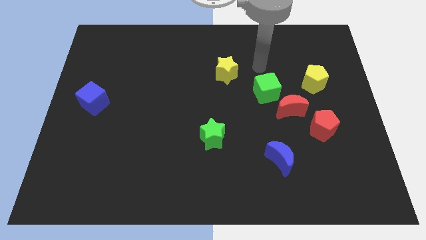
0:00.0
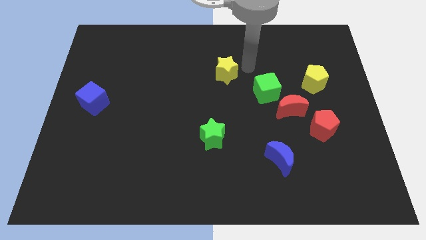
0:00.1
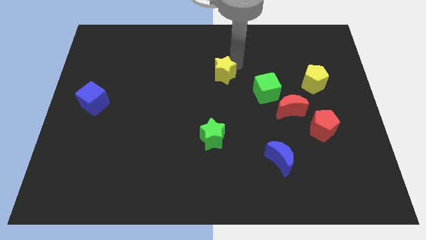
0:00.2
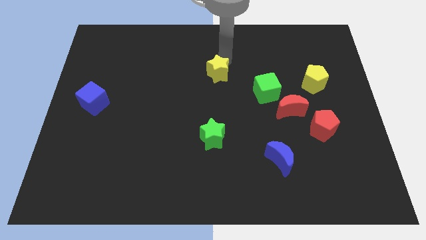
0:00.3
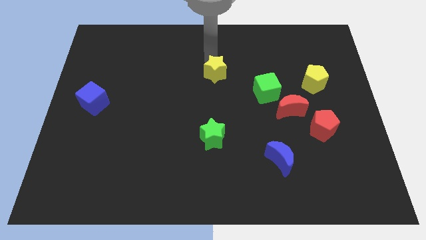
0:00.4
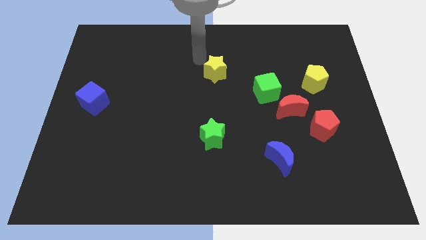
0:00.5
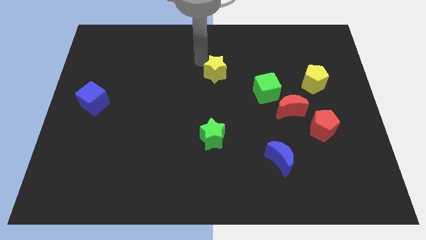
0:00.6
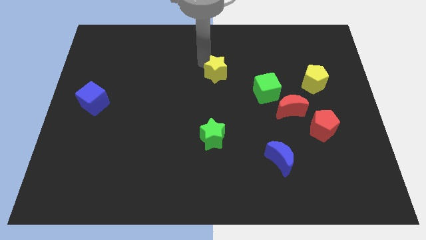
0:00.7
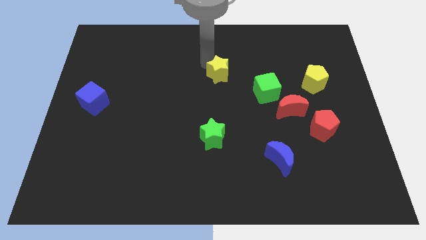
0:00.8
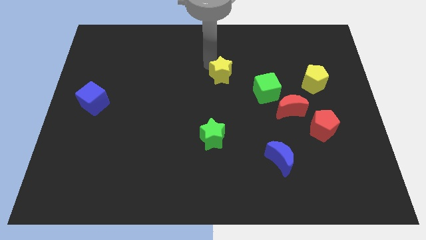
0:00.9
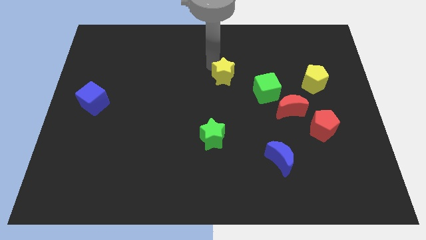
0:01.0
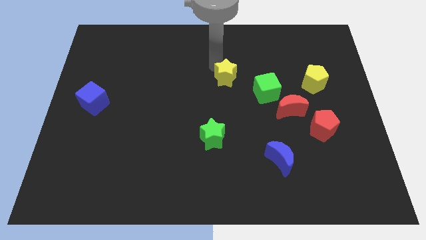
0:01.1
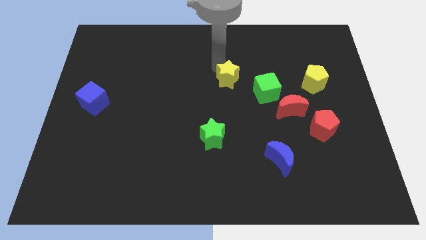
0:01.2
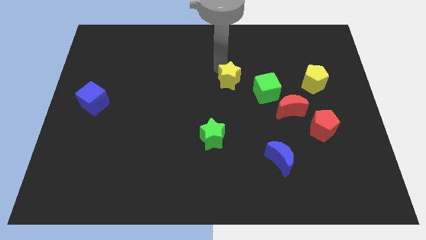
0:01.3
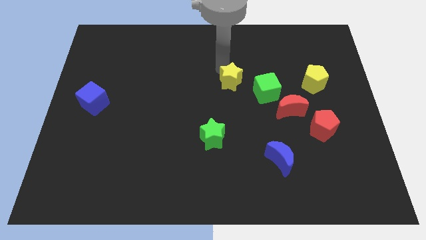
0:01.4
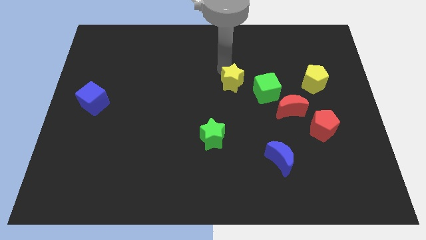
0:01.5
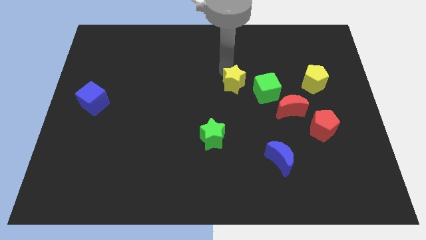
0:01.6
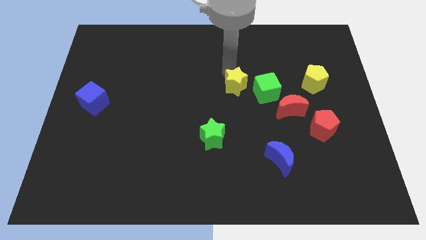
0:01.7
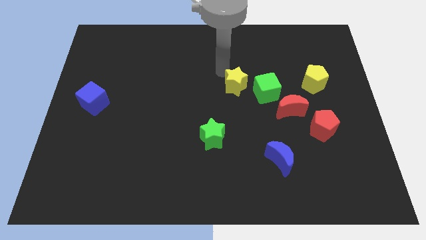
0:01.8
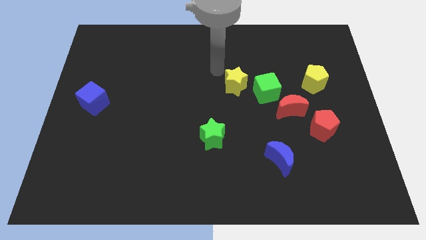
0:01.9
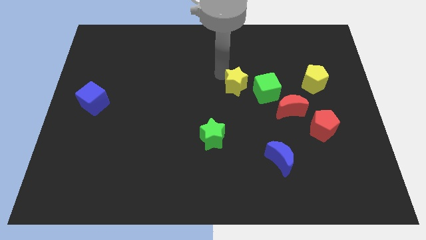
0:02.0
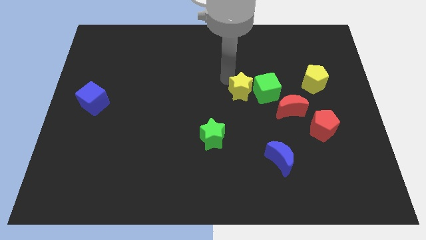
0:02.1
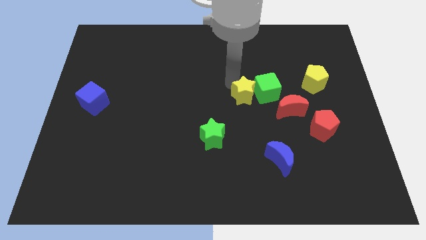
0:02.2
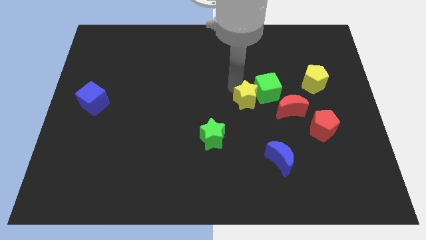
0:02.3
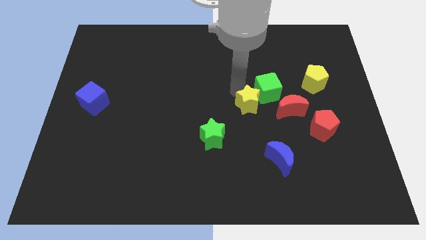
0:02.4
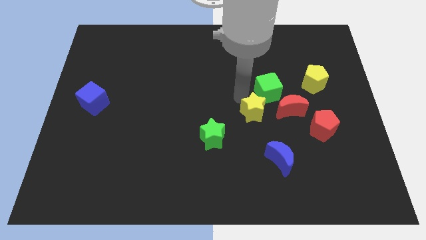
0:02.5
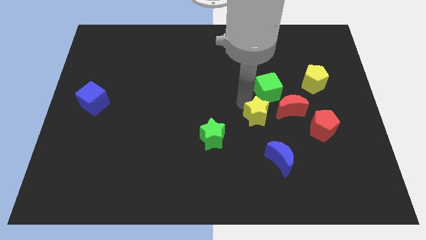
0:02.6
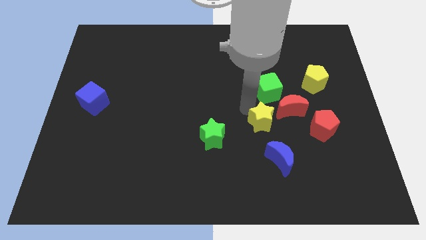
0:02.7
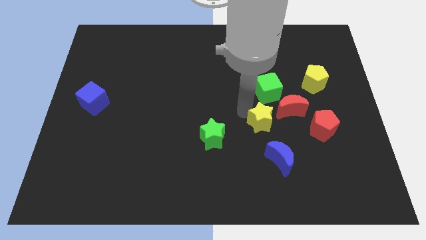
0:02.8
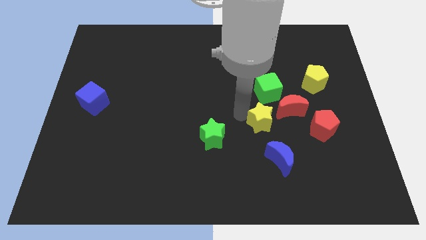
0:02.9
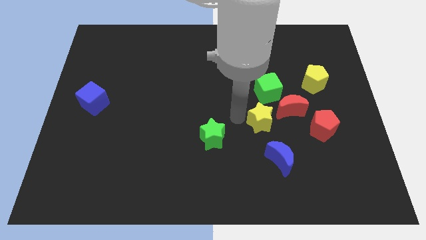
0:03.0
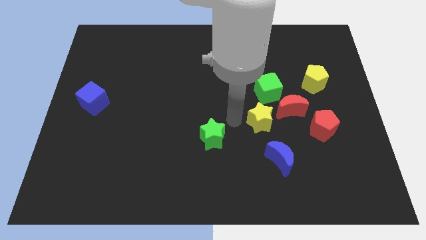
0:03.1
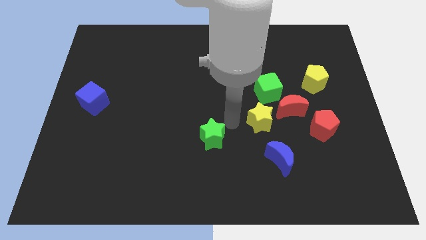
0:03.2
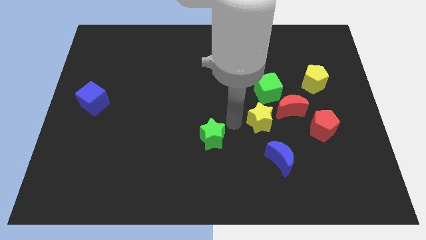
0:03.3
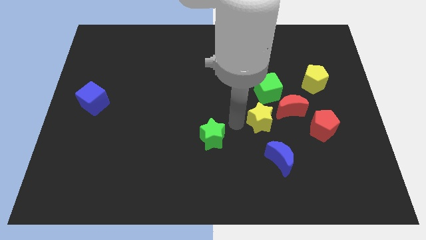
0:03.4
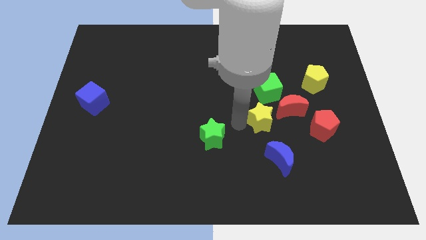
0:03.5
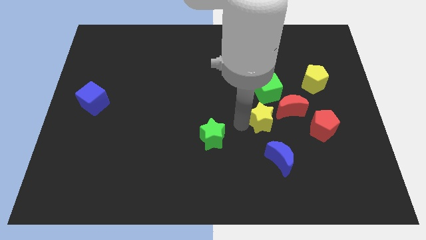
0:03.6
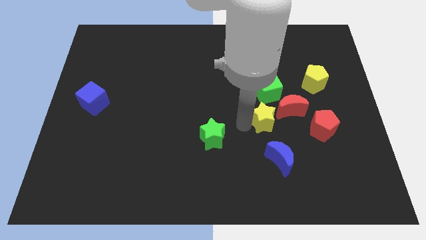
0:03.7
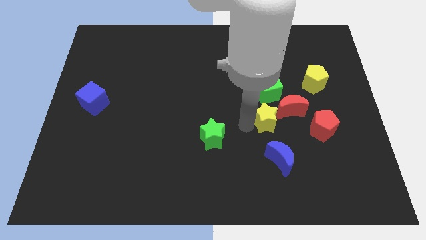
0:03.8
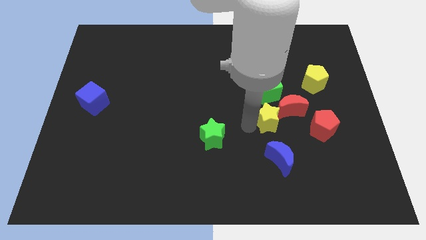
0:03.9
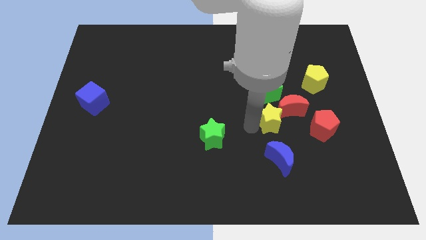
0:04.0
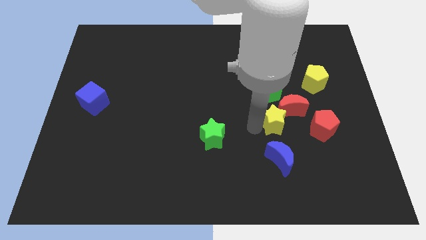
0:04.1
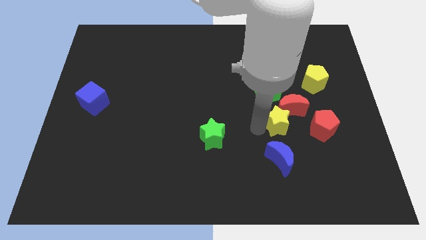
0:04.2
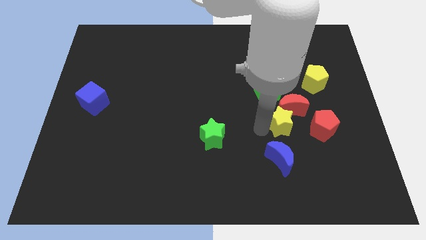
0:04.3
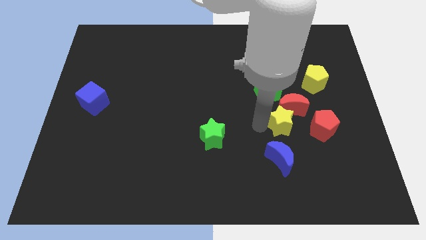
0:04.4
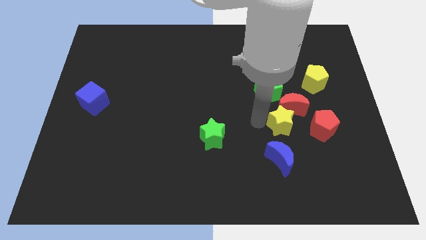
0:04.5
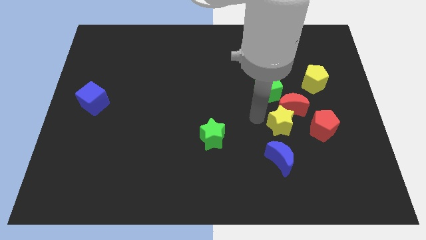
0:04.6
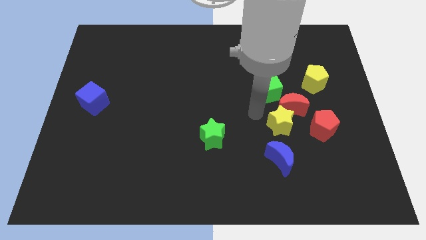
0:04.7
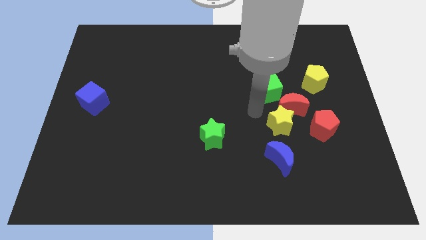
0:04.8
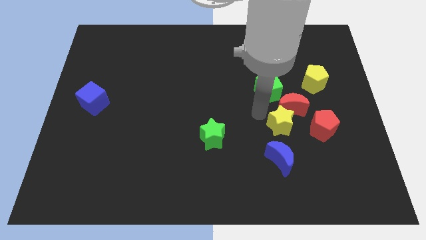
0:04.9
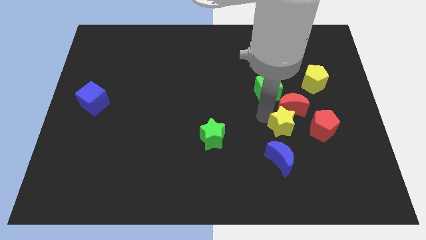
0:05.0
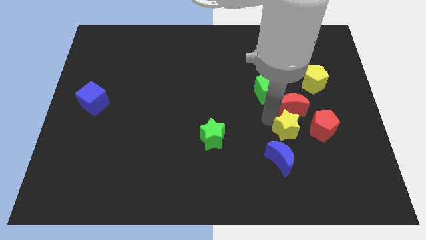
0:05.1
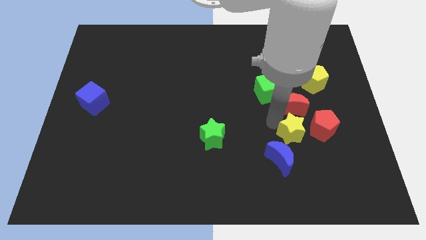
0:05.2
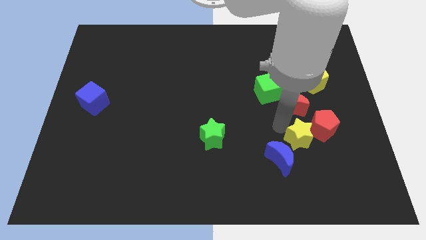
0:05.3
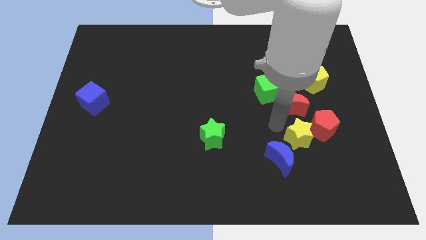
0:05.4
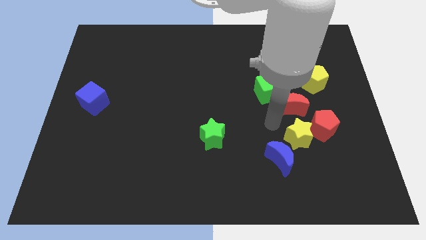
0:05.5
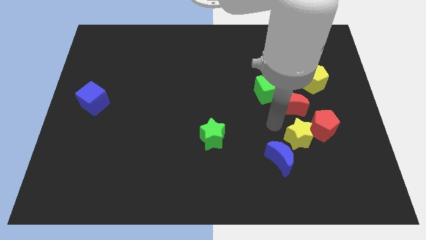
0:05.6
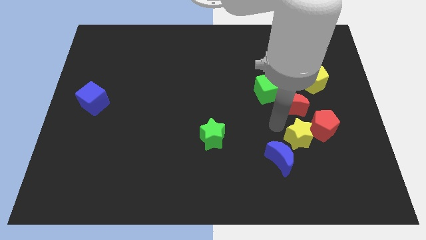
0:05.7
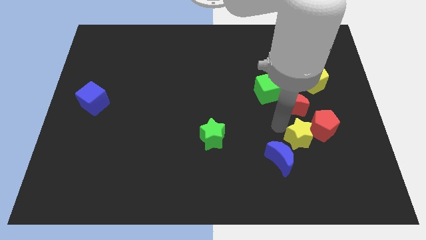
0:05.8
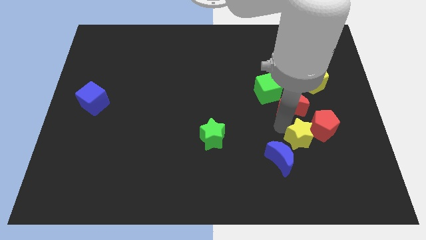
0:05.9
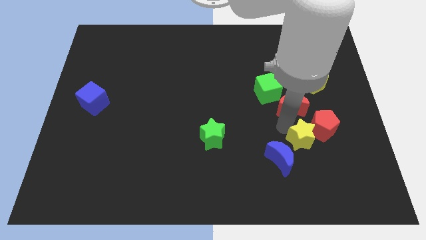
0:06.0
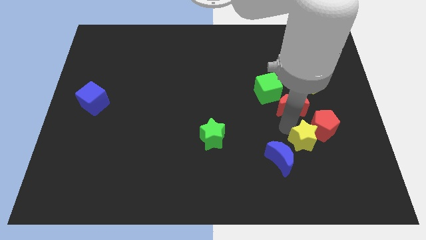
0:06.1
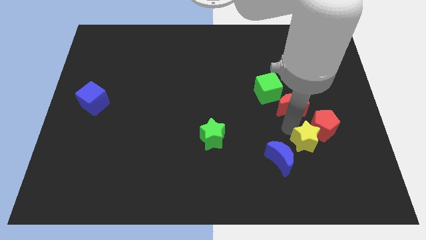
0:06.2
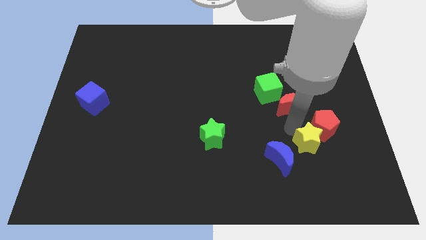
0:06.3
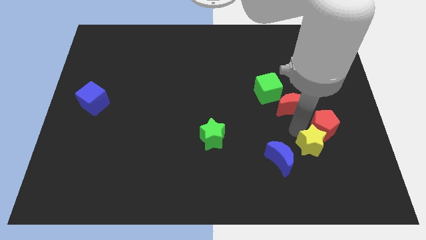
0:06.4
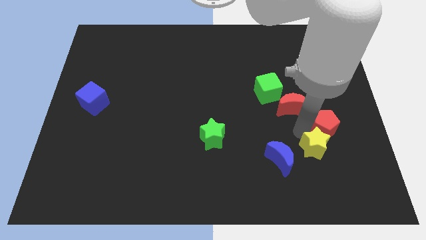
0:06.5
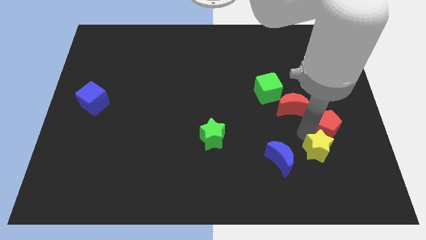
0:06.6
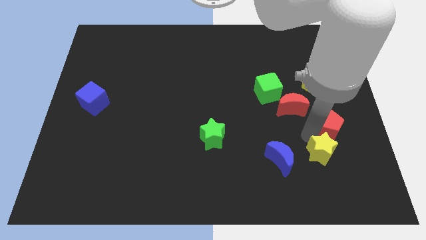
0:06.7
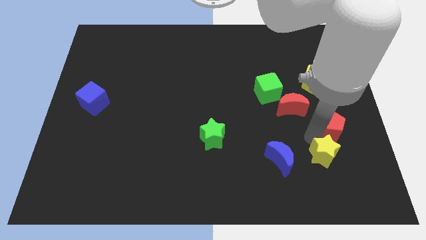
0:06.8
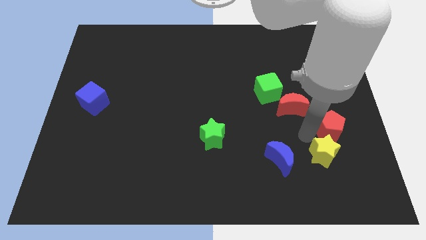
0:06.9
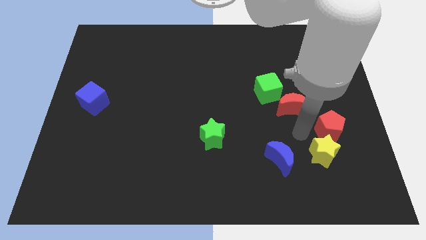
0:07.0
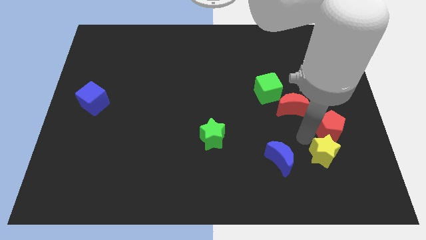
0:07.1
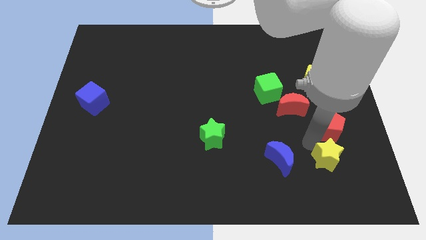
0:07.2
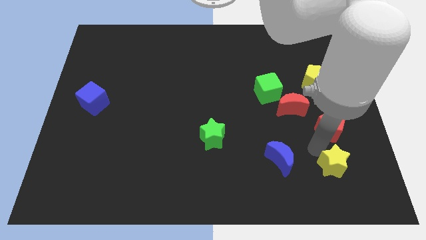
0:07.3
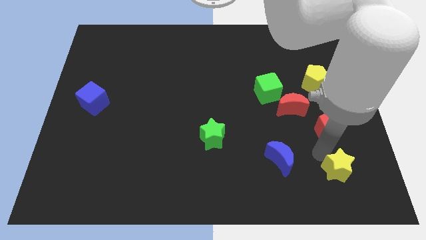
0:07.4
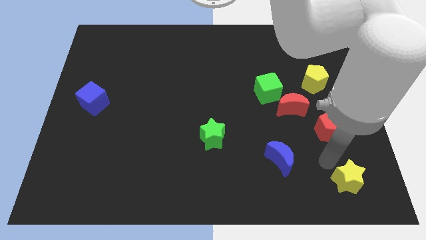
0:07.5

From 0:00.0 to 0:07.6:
push the yellow star to the bottom right of the board
